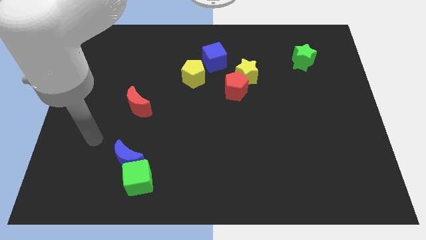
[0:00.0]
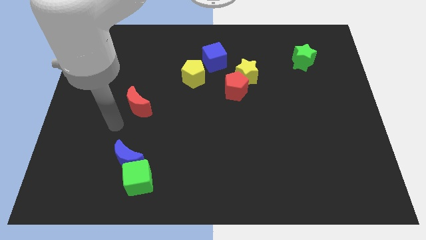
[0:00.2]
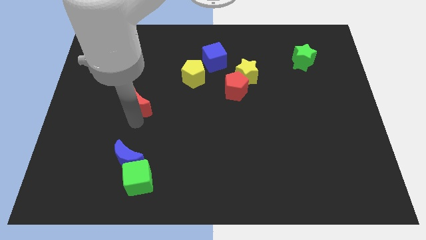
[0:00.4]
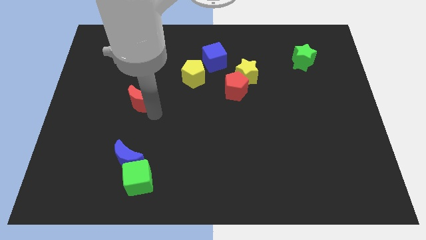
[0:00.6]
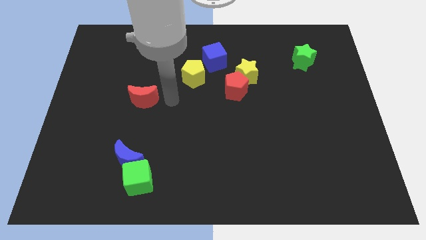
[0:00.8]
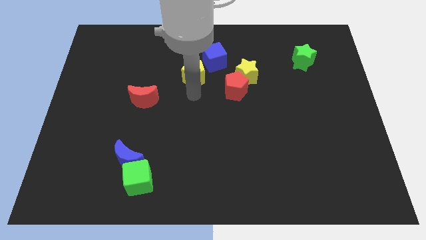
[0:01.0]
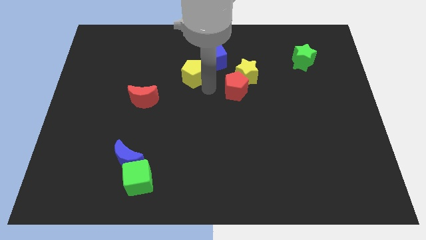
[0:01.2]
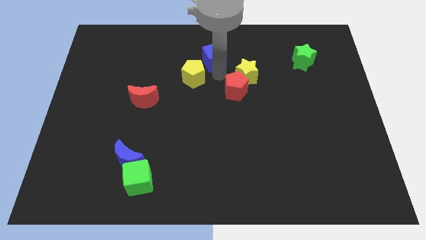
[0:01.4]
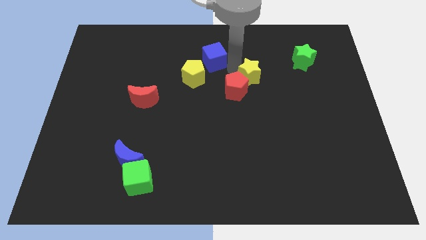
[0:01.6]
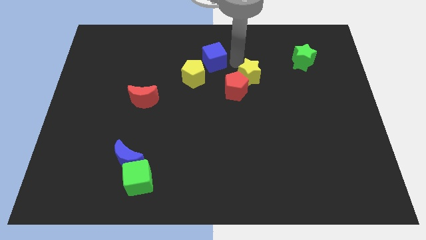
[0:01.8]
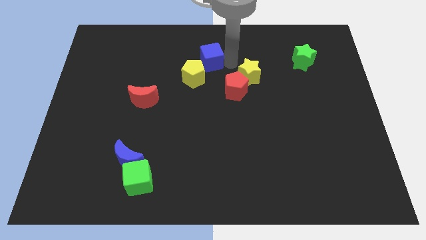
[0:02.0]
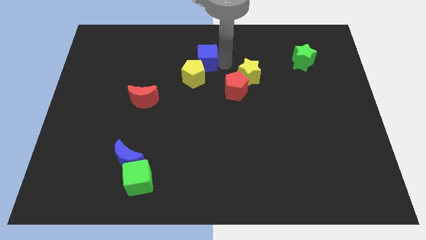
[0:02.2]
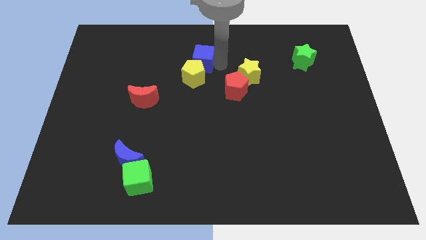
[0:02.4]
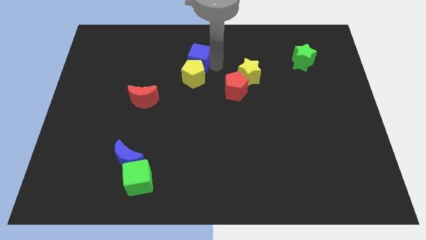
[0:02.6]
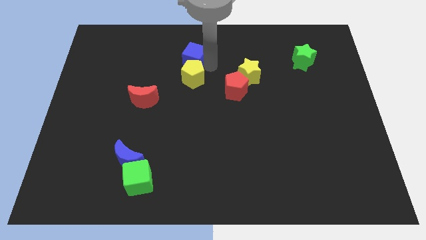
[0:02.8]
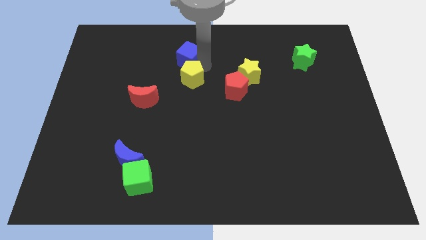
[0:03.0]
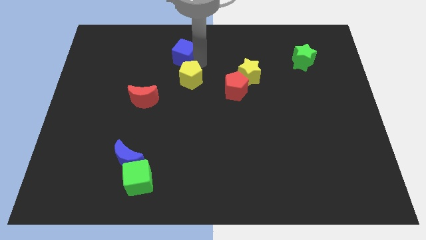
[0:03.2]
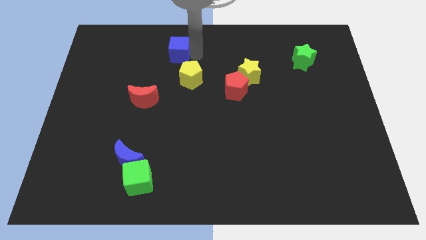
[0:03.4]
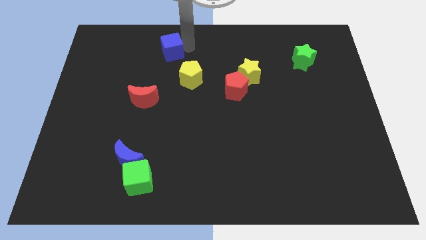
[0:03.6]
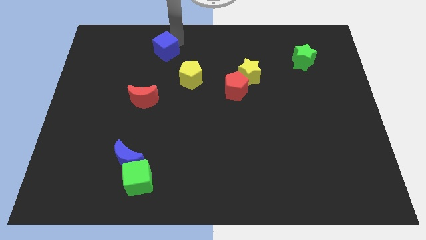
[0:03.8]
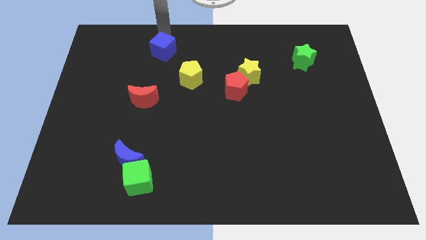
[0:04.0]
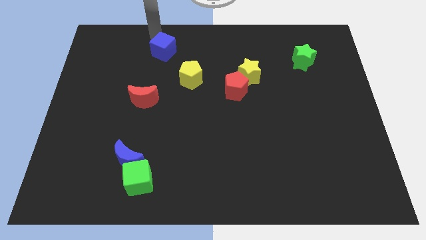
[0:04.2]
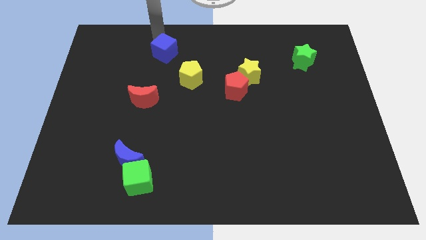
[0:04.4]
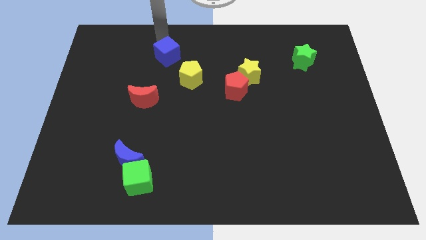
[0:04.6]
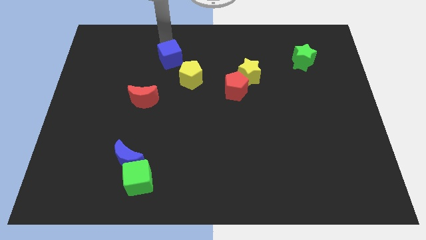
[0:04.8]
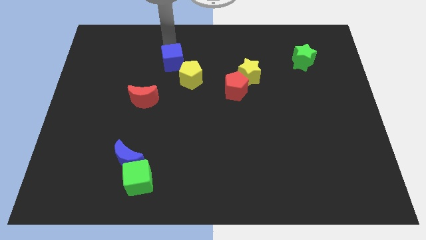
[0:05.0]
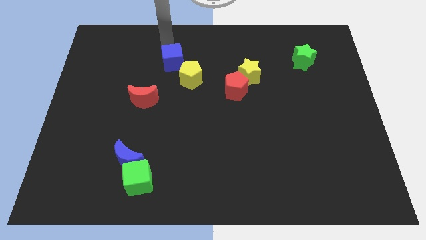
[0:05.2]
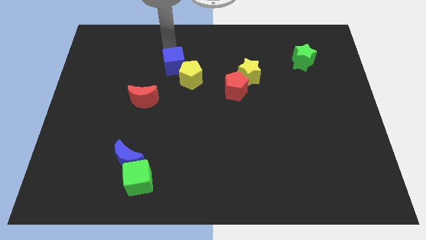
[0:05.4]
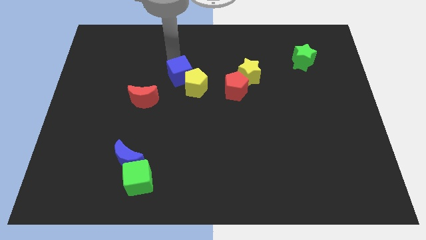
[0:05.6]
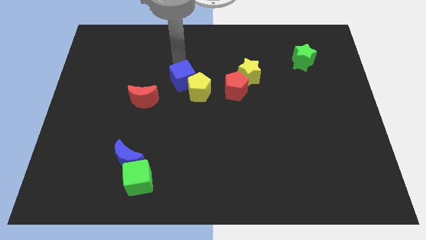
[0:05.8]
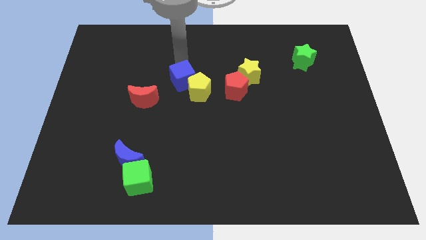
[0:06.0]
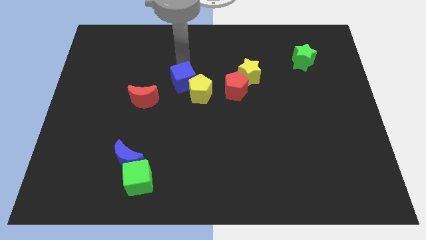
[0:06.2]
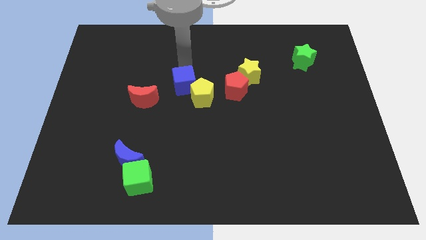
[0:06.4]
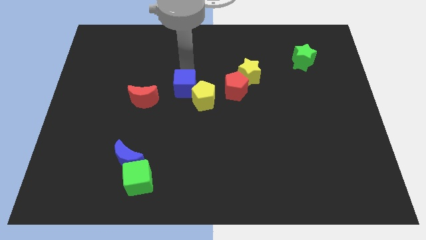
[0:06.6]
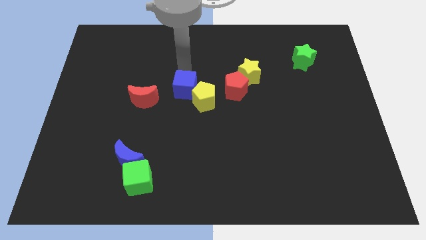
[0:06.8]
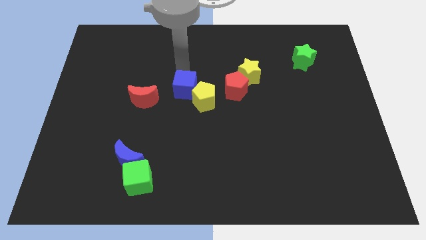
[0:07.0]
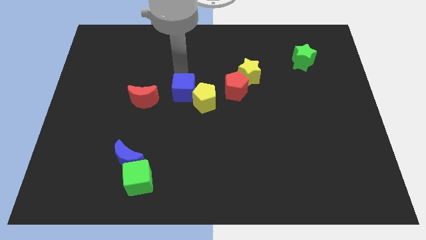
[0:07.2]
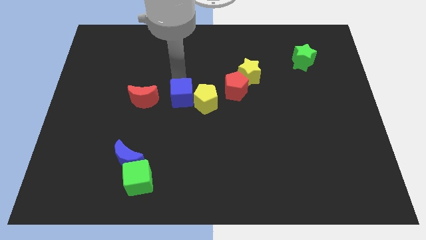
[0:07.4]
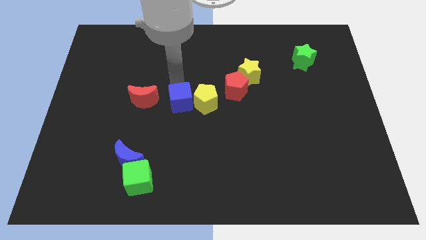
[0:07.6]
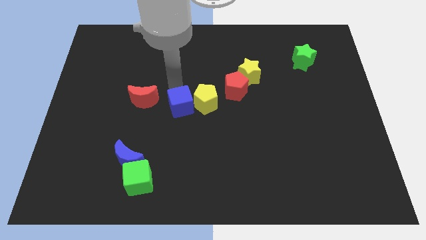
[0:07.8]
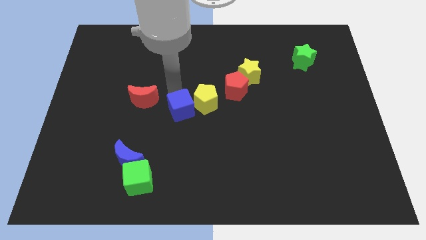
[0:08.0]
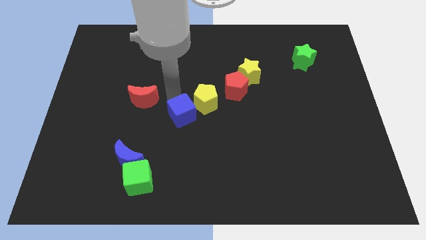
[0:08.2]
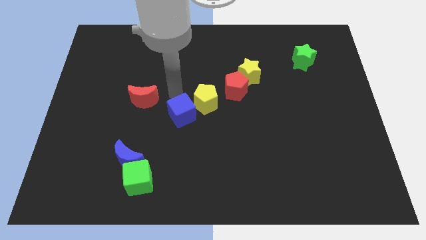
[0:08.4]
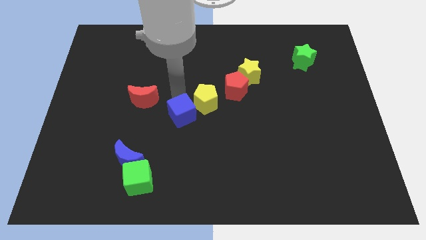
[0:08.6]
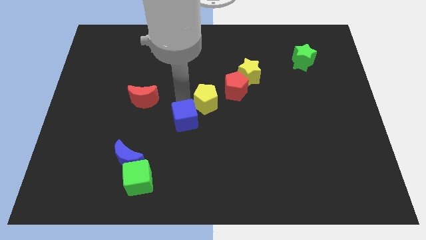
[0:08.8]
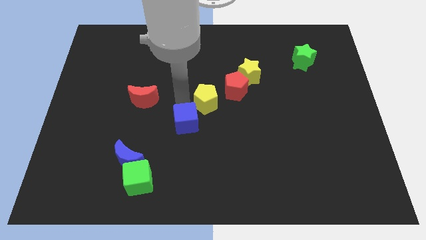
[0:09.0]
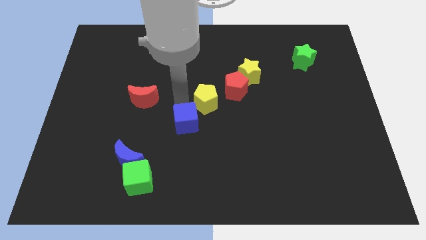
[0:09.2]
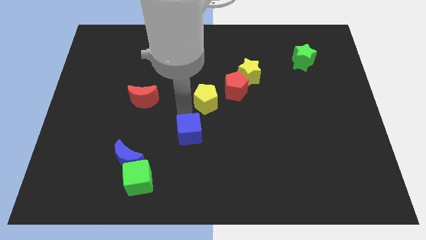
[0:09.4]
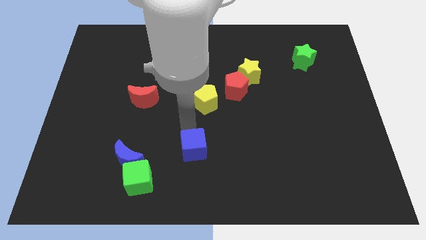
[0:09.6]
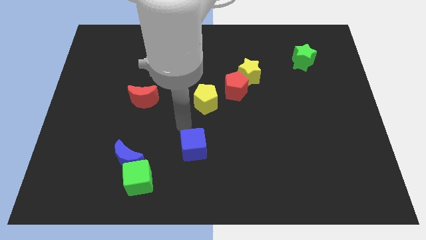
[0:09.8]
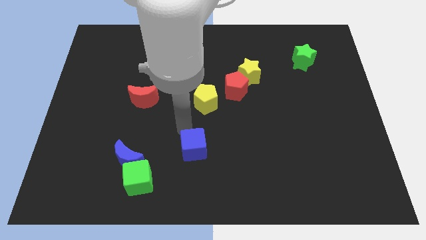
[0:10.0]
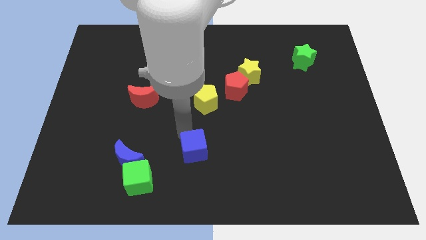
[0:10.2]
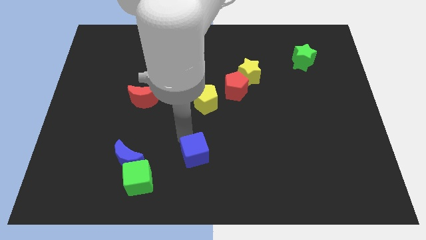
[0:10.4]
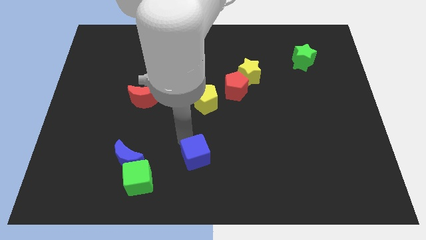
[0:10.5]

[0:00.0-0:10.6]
push the blue cube to the bottom

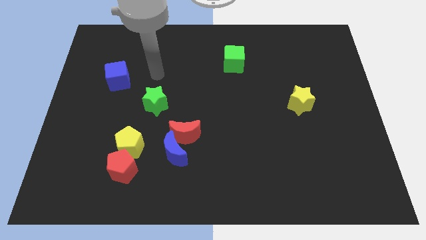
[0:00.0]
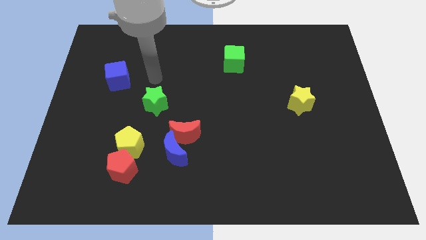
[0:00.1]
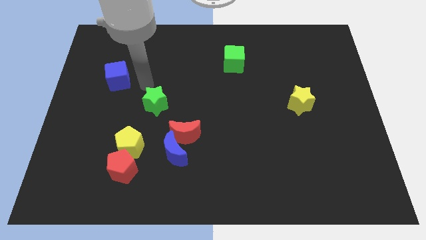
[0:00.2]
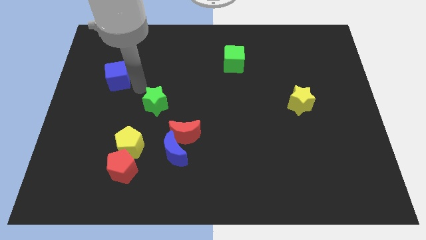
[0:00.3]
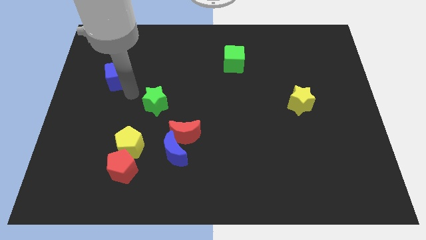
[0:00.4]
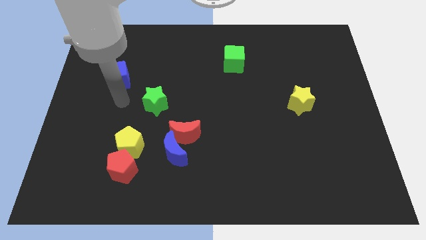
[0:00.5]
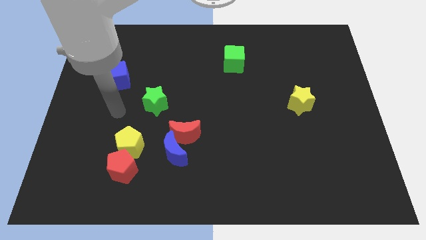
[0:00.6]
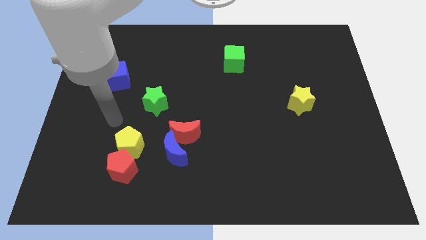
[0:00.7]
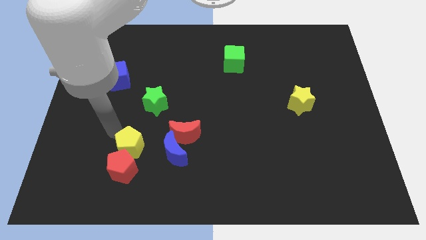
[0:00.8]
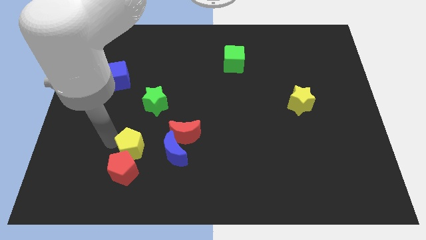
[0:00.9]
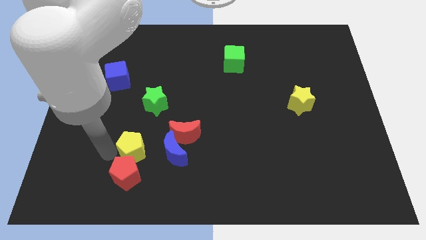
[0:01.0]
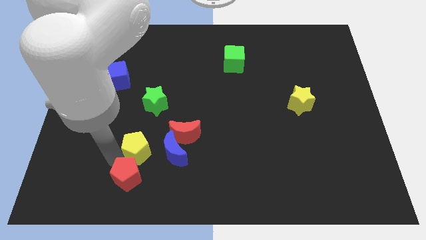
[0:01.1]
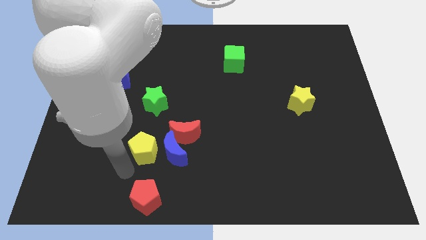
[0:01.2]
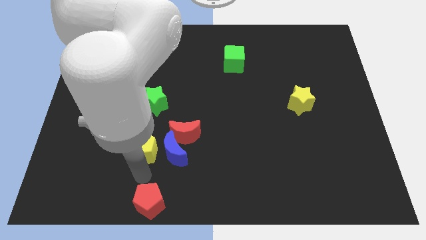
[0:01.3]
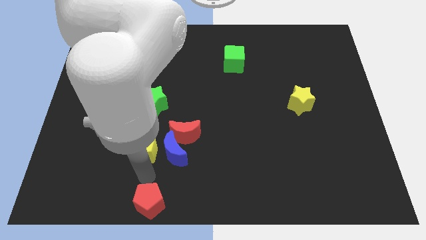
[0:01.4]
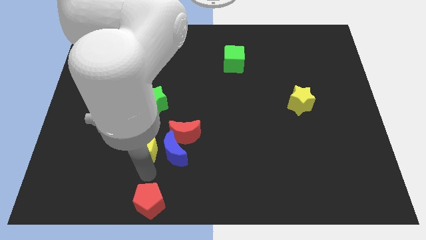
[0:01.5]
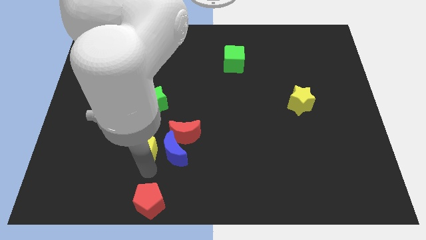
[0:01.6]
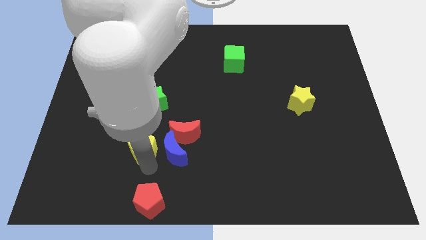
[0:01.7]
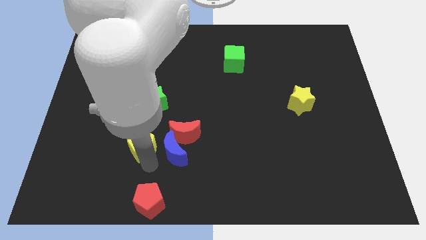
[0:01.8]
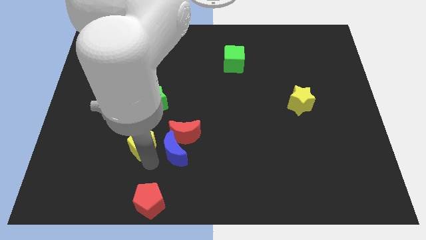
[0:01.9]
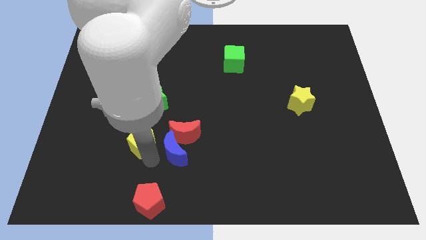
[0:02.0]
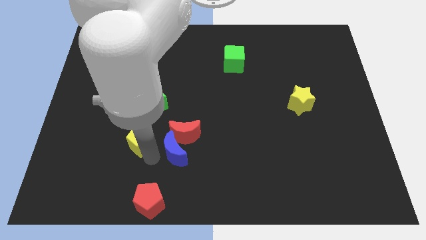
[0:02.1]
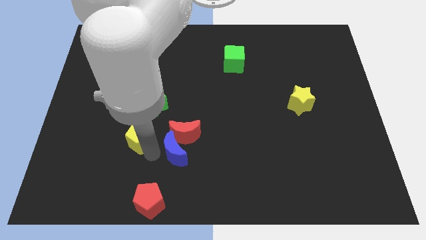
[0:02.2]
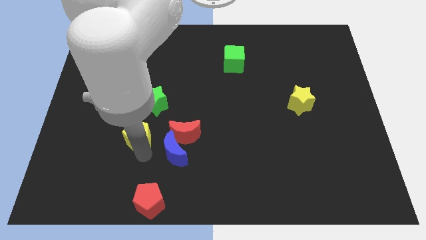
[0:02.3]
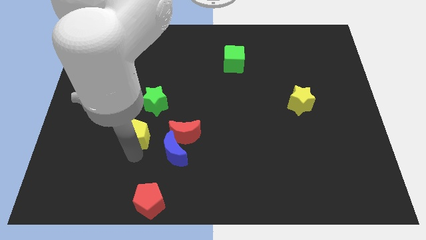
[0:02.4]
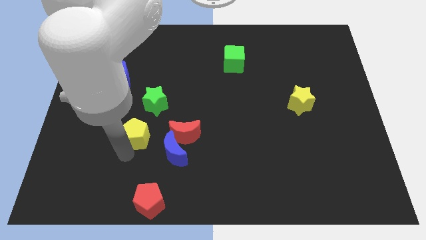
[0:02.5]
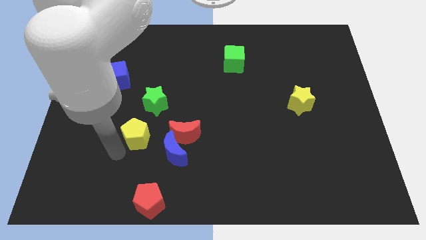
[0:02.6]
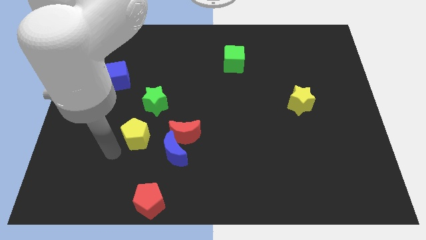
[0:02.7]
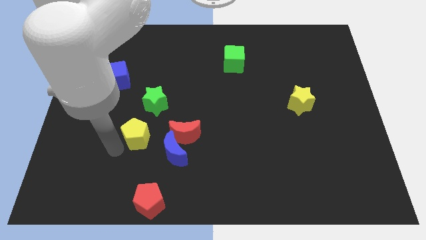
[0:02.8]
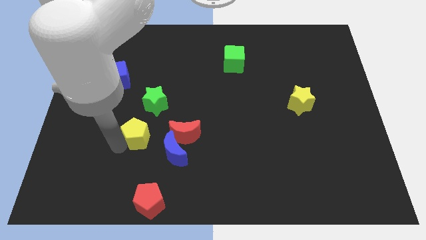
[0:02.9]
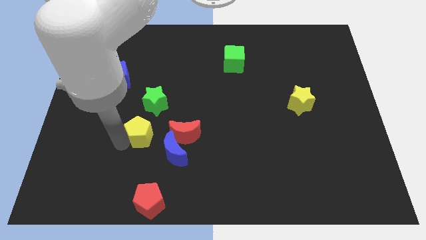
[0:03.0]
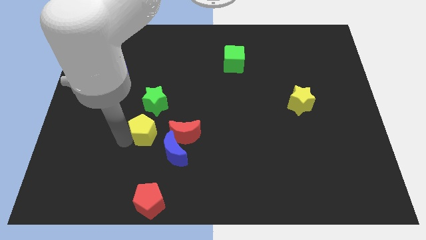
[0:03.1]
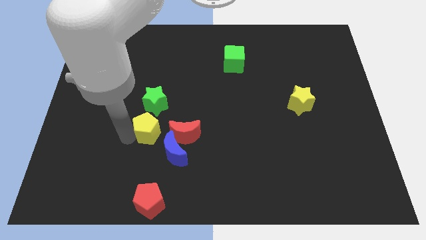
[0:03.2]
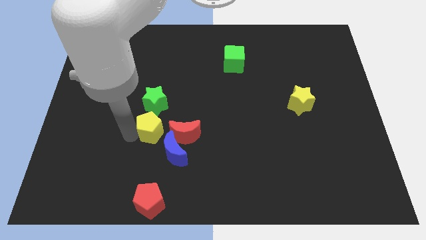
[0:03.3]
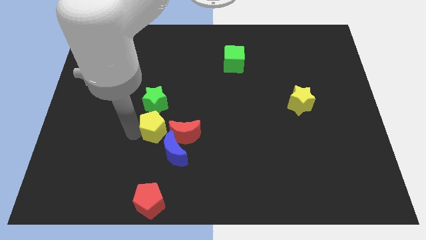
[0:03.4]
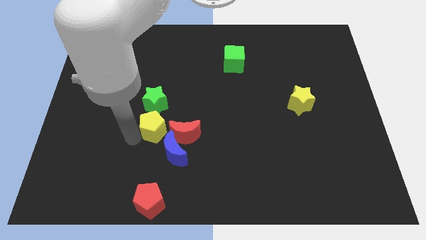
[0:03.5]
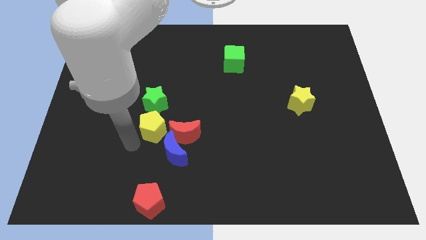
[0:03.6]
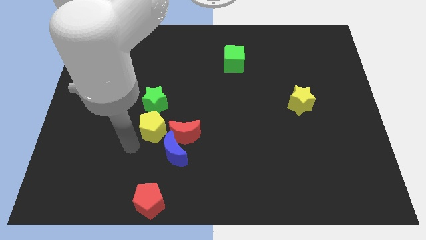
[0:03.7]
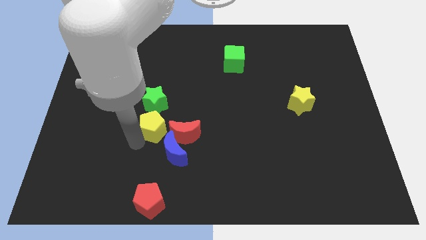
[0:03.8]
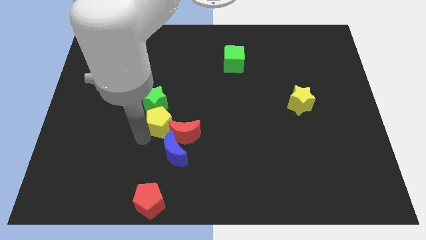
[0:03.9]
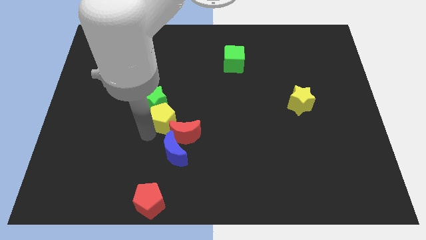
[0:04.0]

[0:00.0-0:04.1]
move the yellow pentagon to the middle
